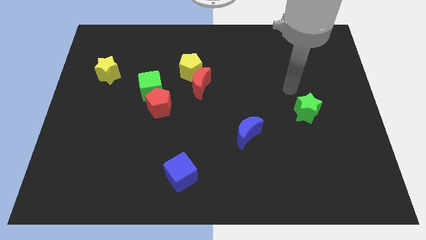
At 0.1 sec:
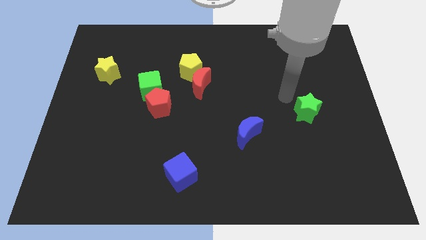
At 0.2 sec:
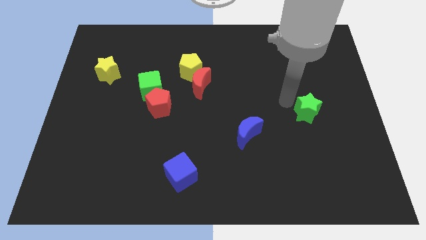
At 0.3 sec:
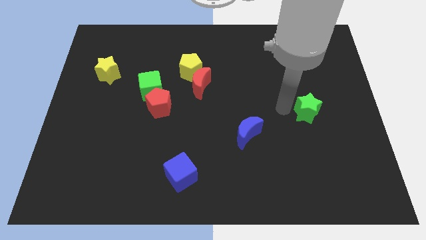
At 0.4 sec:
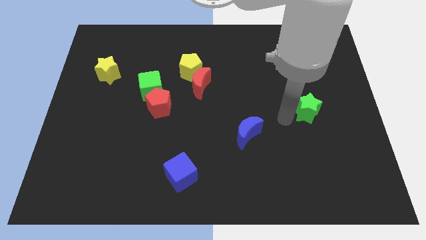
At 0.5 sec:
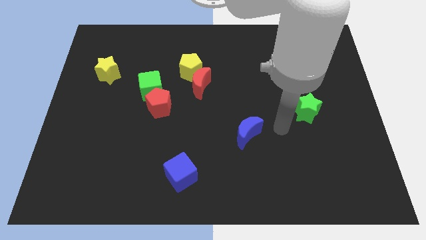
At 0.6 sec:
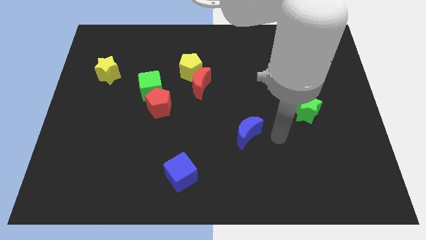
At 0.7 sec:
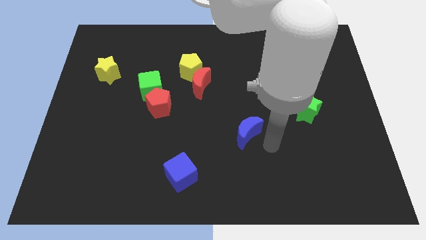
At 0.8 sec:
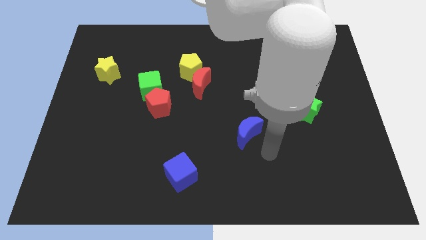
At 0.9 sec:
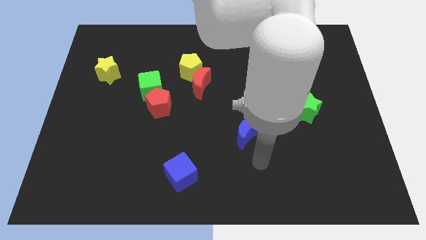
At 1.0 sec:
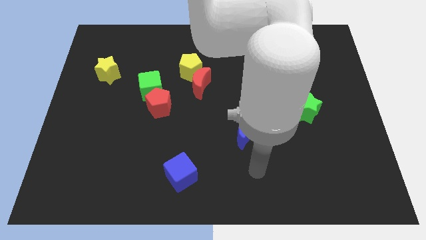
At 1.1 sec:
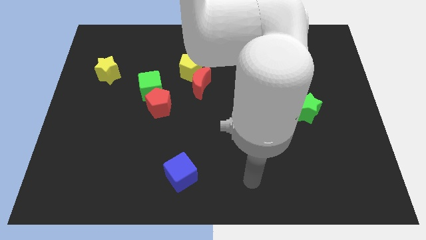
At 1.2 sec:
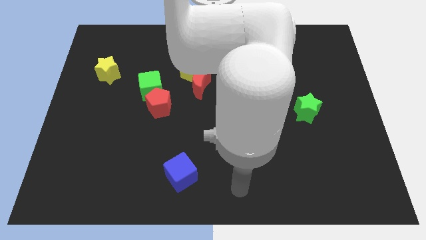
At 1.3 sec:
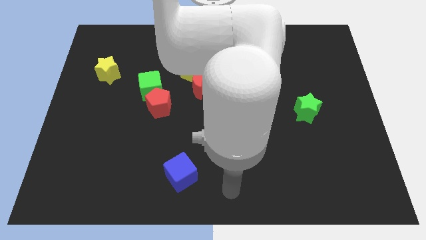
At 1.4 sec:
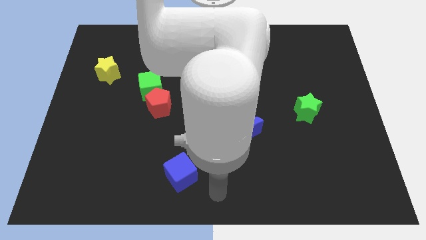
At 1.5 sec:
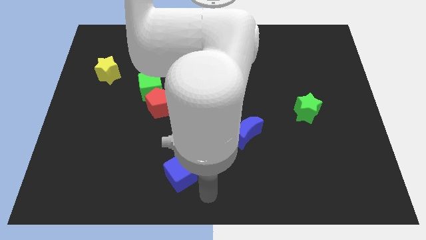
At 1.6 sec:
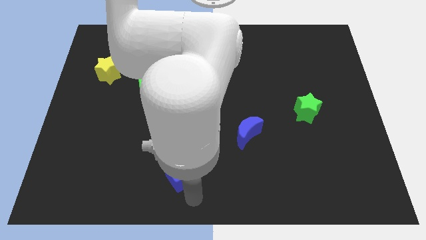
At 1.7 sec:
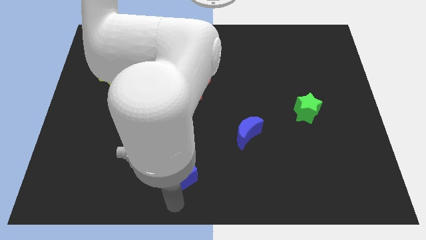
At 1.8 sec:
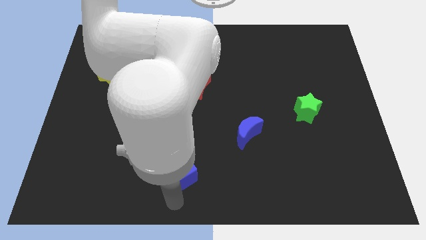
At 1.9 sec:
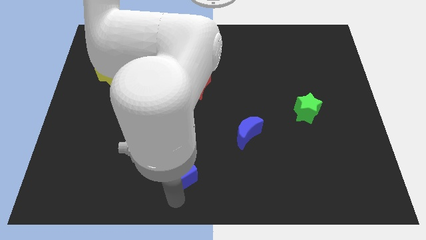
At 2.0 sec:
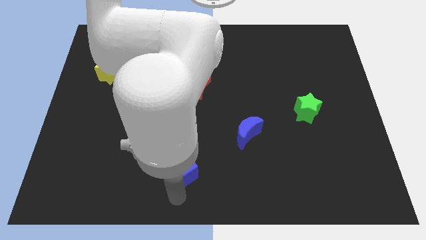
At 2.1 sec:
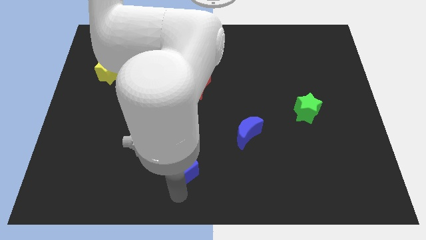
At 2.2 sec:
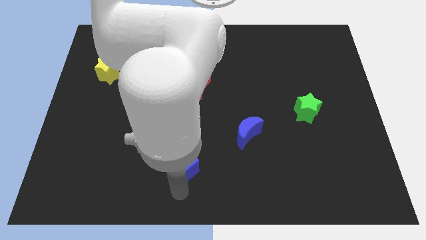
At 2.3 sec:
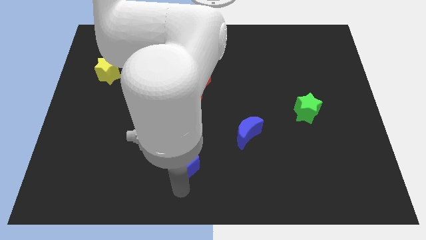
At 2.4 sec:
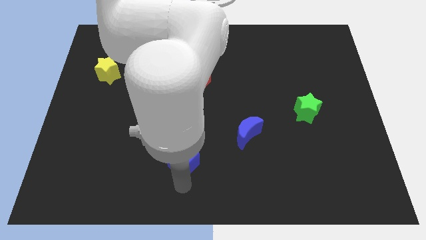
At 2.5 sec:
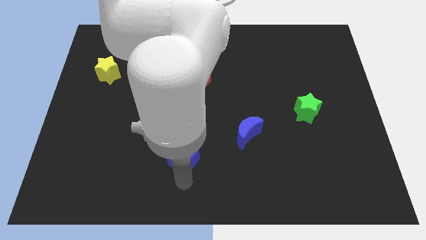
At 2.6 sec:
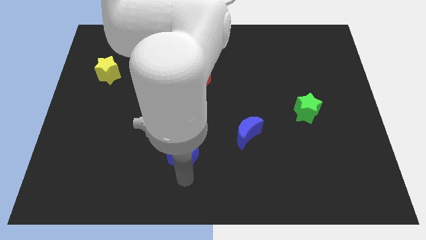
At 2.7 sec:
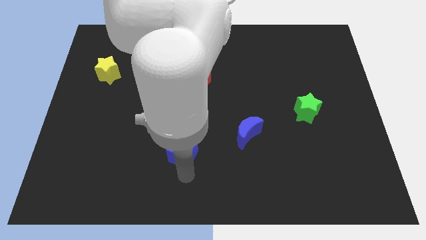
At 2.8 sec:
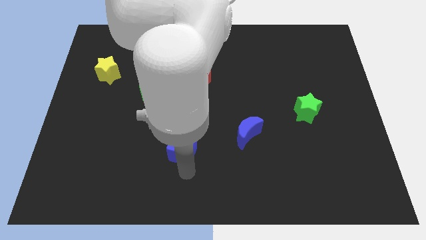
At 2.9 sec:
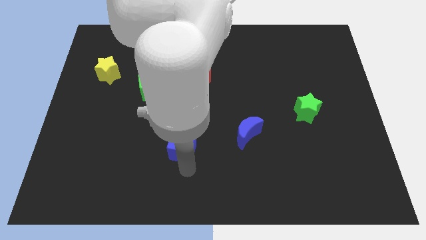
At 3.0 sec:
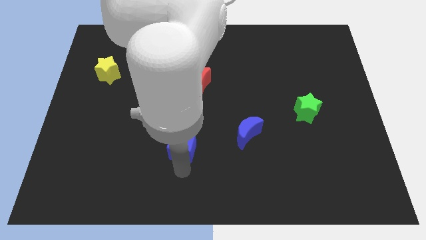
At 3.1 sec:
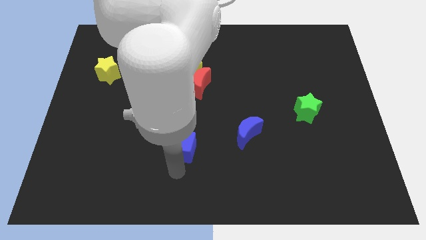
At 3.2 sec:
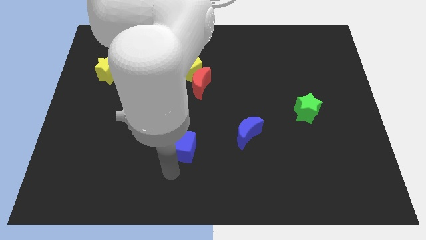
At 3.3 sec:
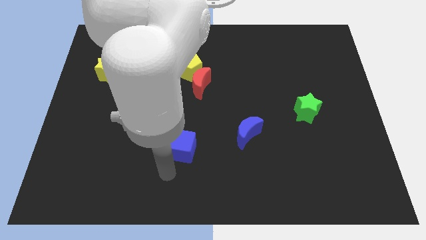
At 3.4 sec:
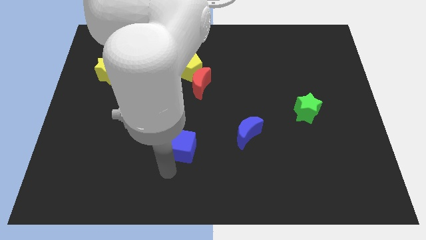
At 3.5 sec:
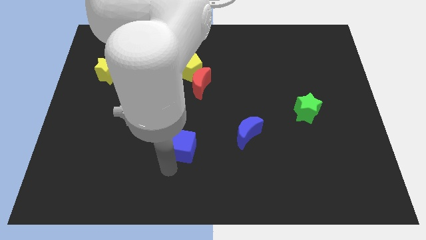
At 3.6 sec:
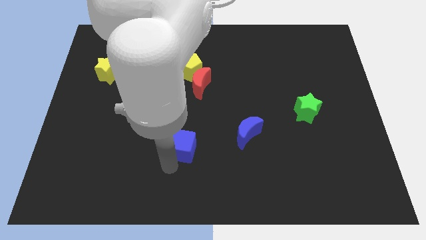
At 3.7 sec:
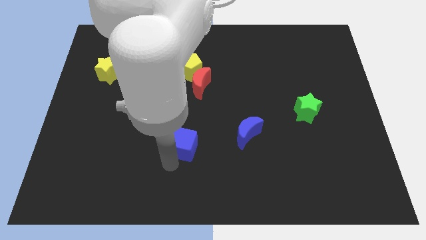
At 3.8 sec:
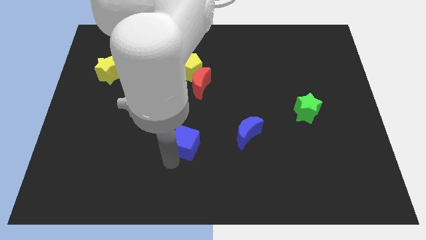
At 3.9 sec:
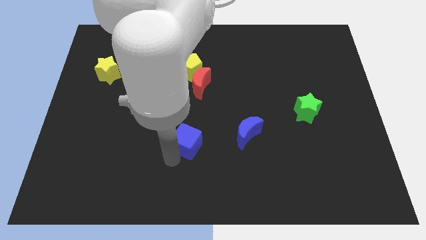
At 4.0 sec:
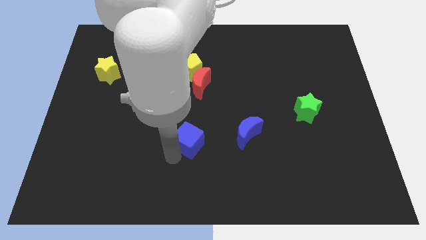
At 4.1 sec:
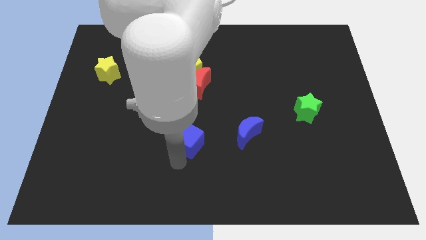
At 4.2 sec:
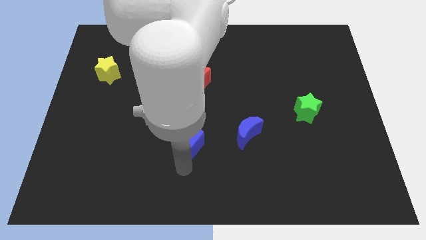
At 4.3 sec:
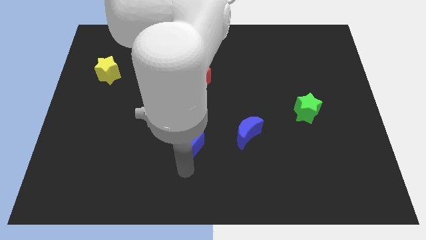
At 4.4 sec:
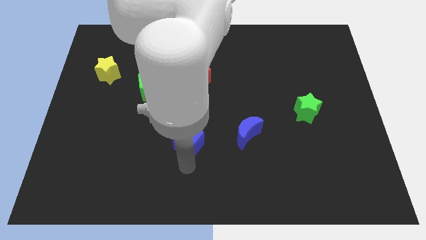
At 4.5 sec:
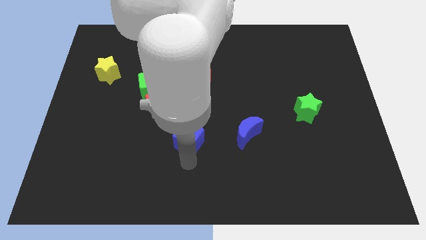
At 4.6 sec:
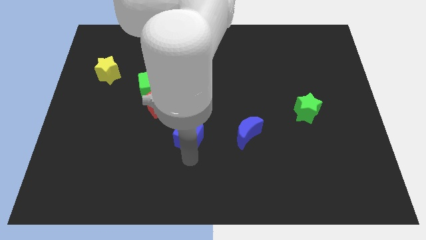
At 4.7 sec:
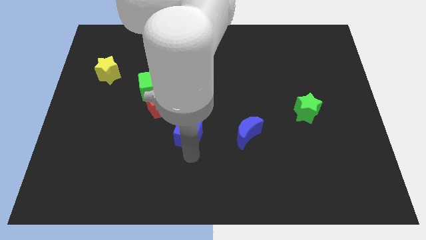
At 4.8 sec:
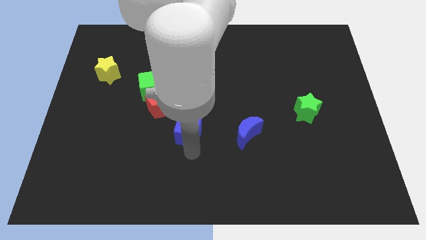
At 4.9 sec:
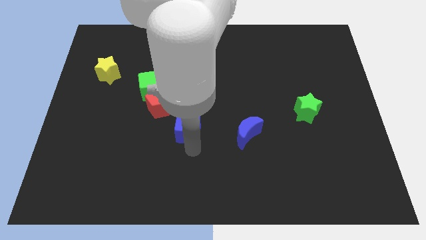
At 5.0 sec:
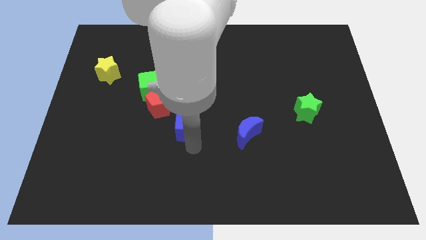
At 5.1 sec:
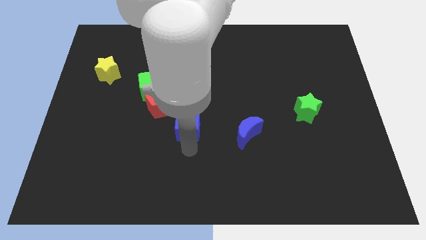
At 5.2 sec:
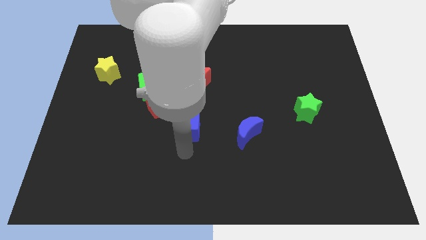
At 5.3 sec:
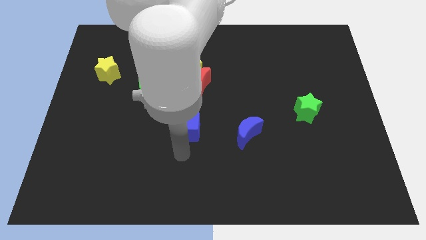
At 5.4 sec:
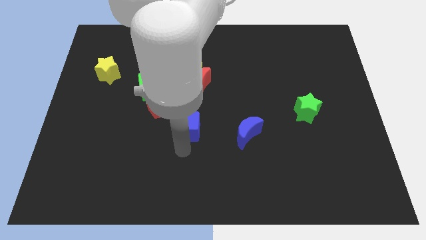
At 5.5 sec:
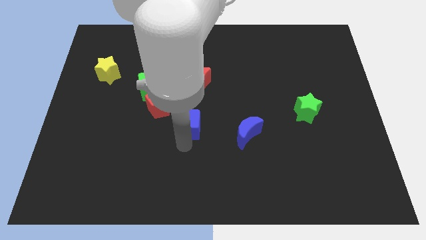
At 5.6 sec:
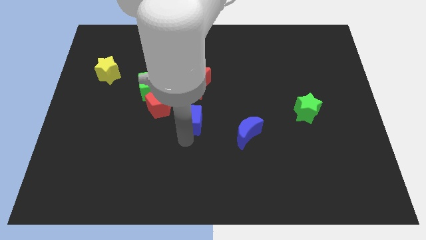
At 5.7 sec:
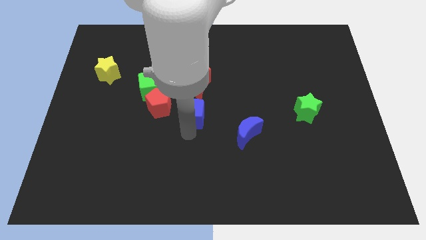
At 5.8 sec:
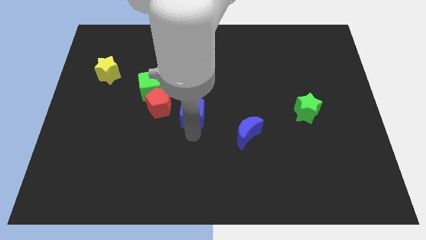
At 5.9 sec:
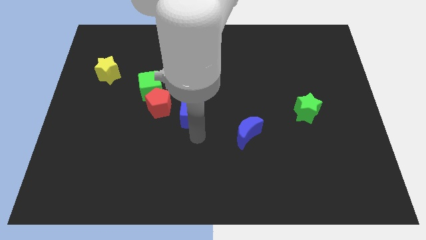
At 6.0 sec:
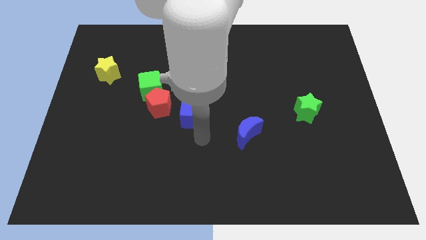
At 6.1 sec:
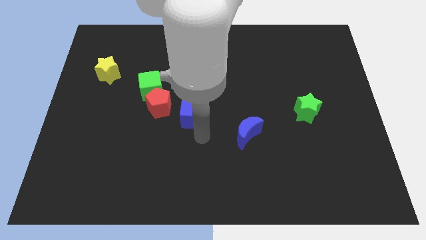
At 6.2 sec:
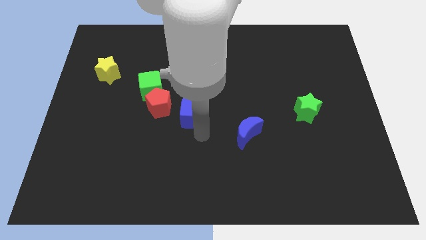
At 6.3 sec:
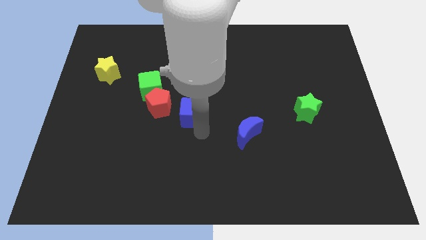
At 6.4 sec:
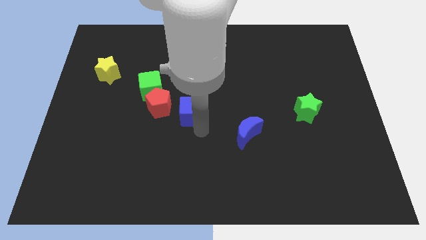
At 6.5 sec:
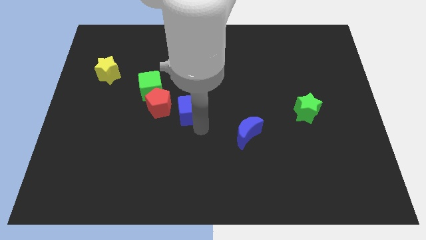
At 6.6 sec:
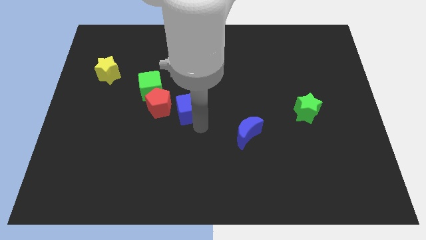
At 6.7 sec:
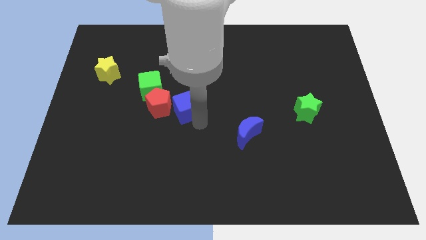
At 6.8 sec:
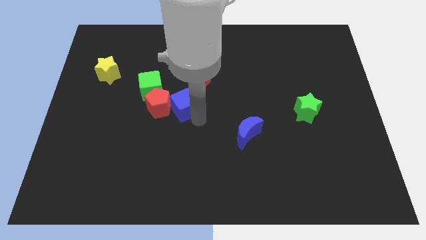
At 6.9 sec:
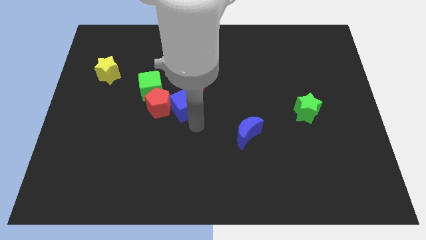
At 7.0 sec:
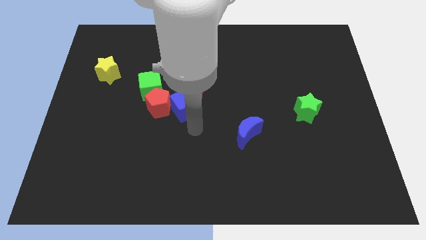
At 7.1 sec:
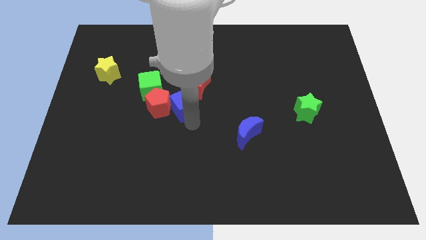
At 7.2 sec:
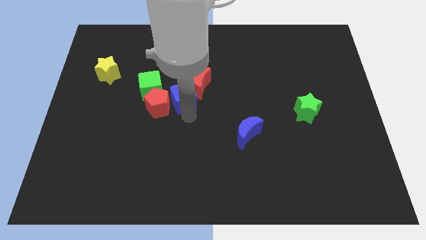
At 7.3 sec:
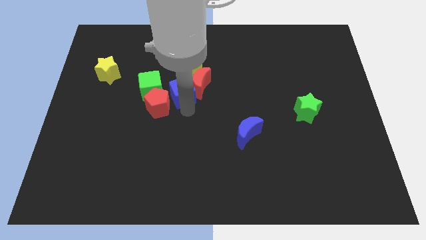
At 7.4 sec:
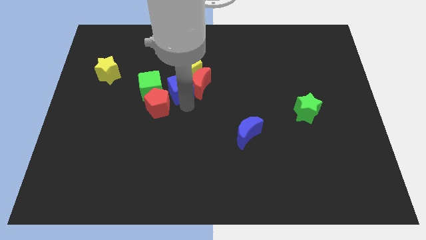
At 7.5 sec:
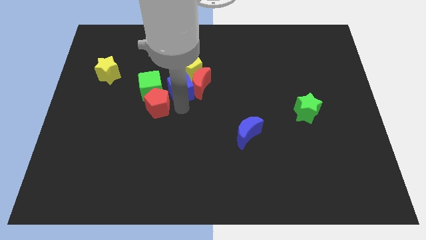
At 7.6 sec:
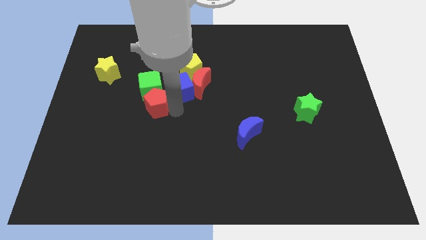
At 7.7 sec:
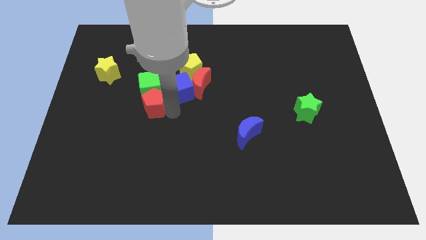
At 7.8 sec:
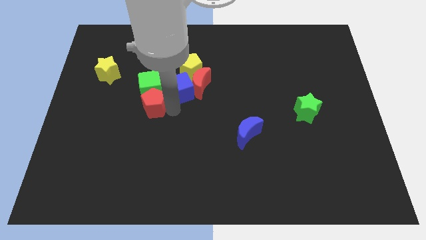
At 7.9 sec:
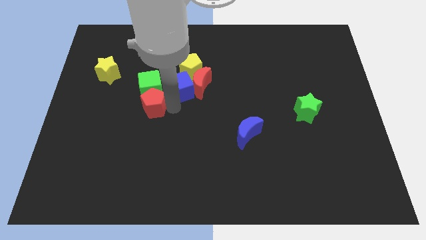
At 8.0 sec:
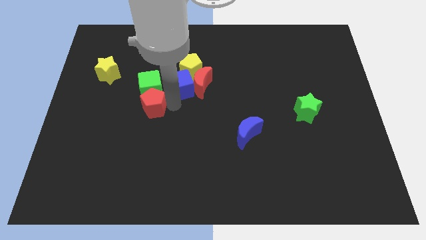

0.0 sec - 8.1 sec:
slide the blue cube towards the yellow pentagon
